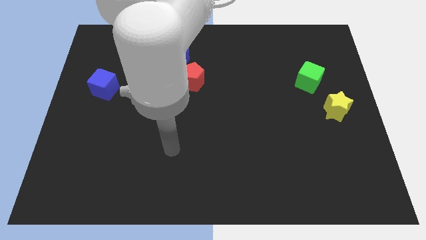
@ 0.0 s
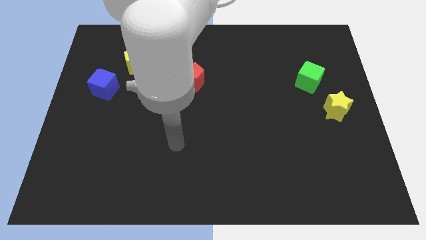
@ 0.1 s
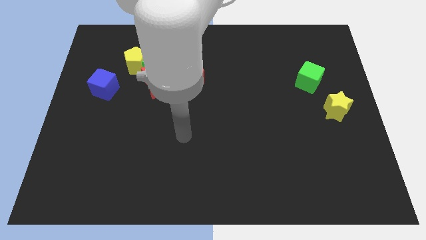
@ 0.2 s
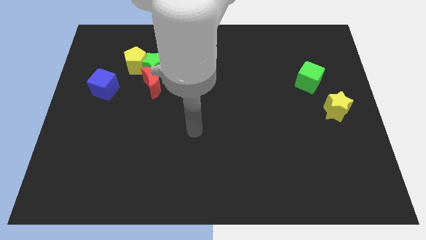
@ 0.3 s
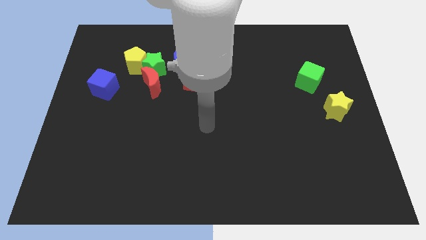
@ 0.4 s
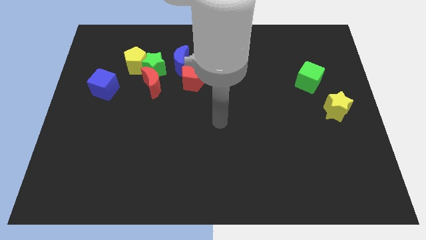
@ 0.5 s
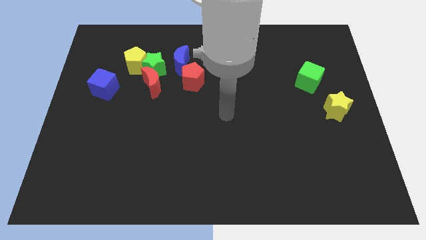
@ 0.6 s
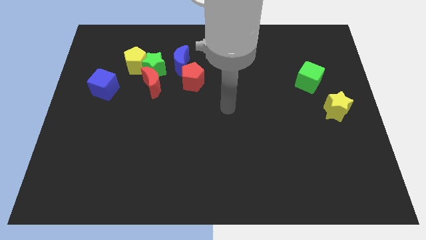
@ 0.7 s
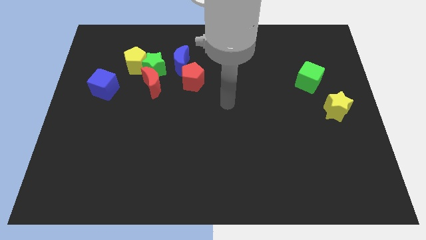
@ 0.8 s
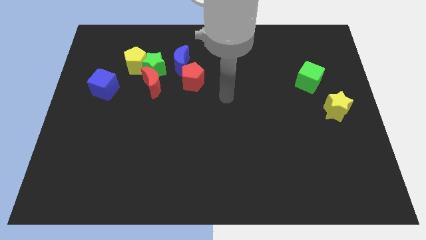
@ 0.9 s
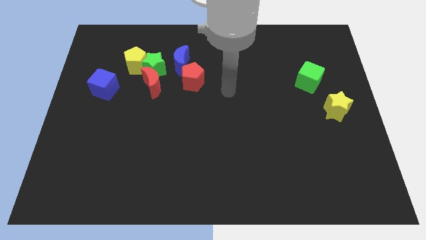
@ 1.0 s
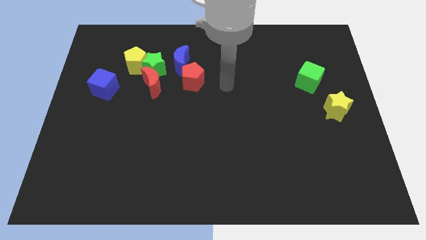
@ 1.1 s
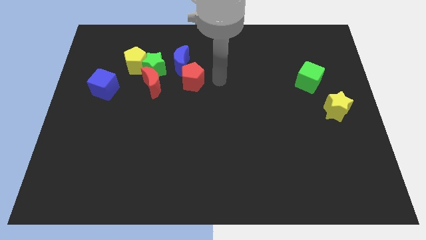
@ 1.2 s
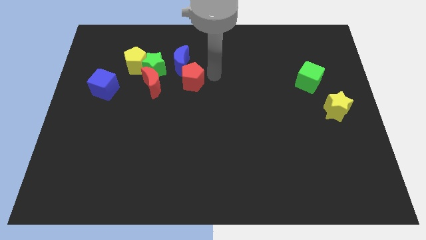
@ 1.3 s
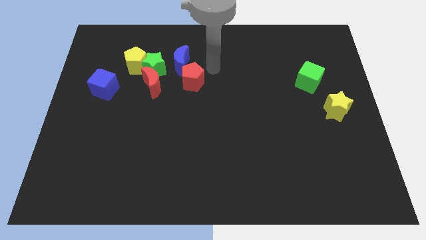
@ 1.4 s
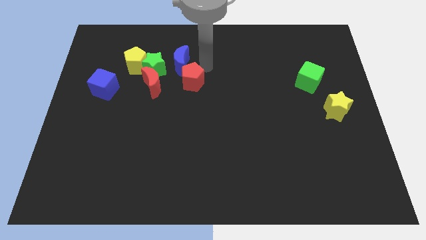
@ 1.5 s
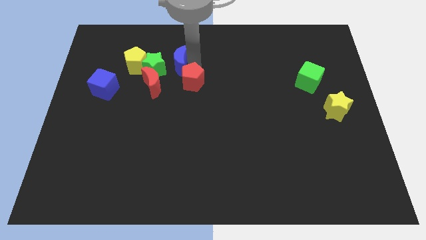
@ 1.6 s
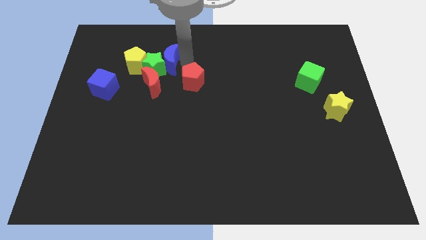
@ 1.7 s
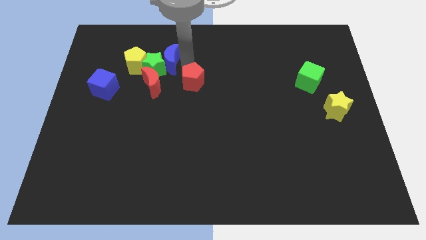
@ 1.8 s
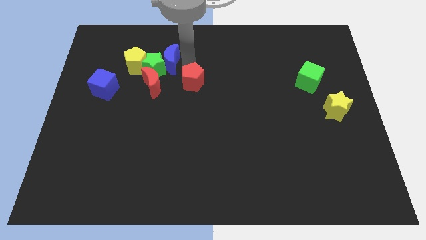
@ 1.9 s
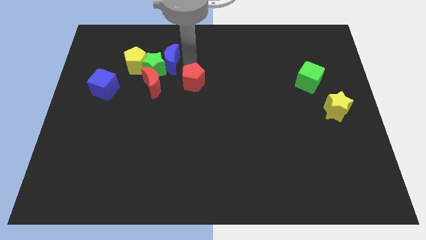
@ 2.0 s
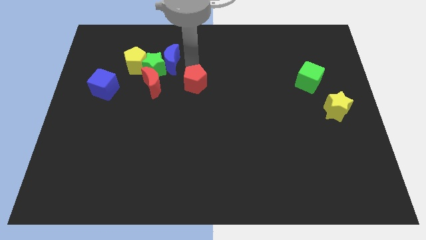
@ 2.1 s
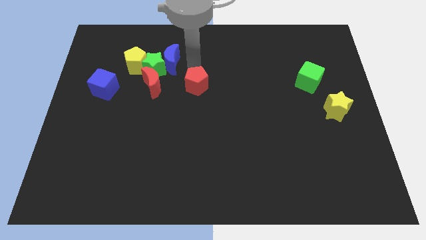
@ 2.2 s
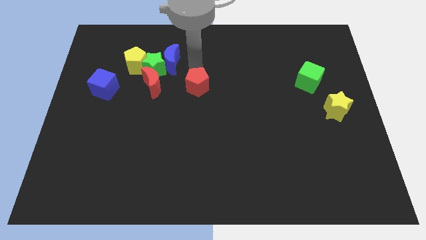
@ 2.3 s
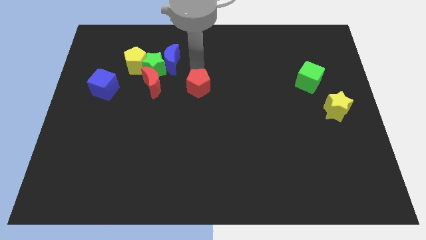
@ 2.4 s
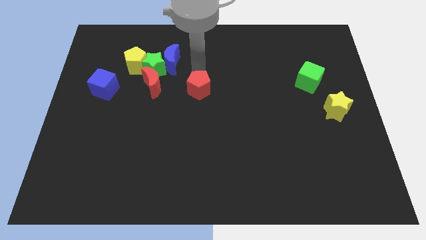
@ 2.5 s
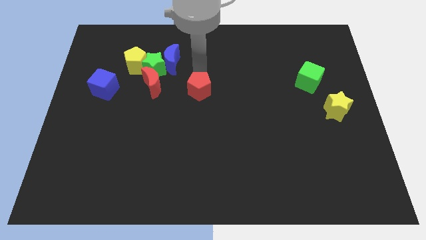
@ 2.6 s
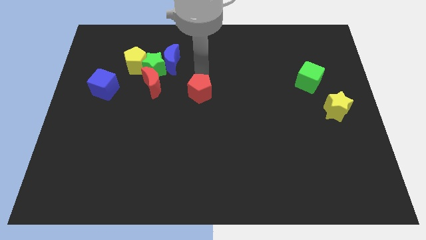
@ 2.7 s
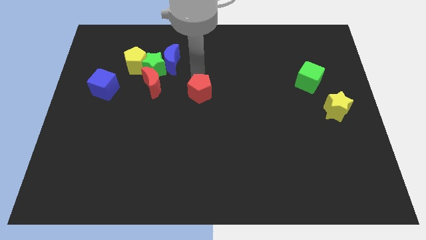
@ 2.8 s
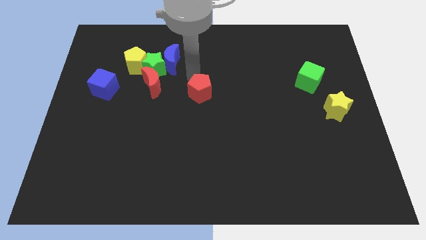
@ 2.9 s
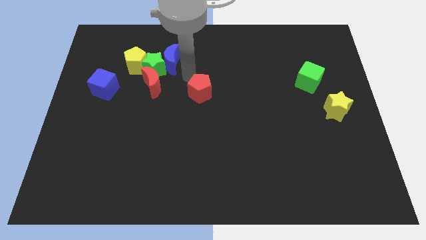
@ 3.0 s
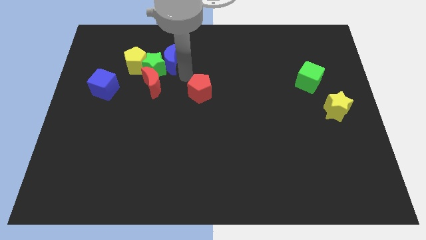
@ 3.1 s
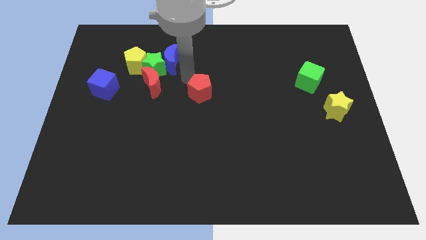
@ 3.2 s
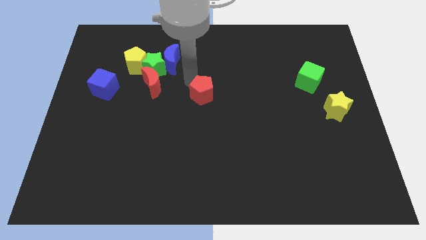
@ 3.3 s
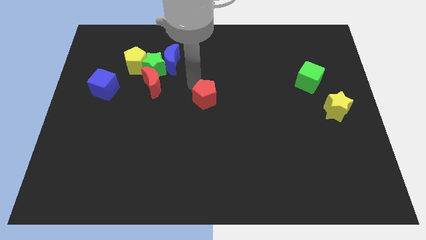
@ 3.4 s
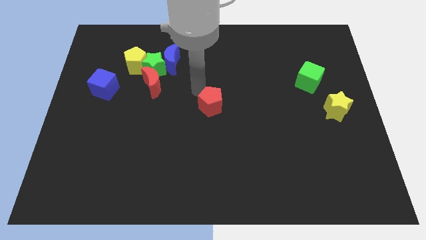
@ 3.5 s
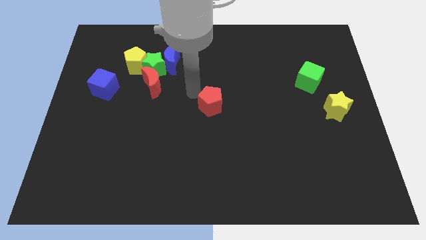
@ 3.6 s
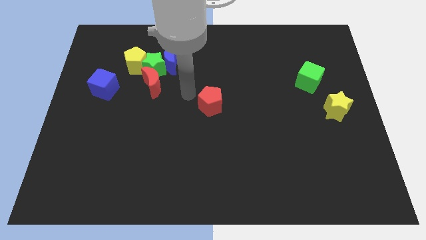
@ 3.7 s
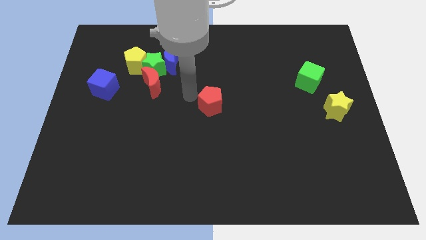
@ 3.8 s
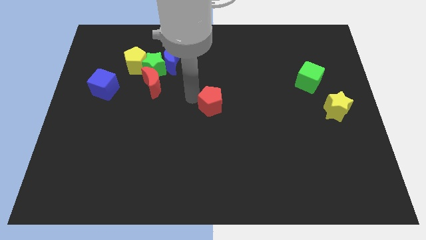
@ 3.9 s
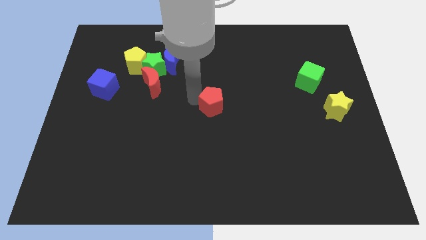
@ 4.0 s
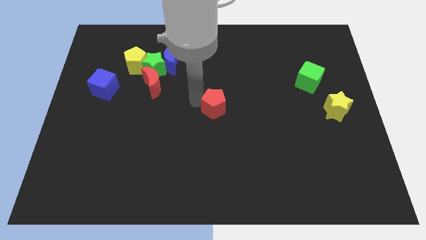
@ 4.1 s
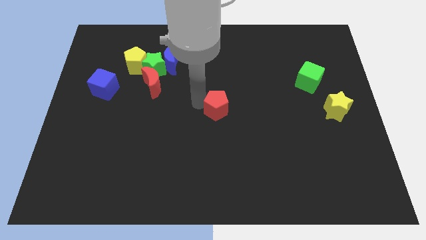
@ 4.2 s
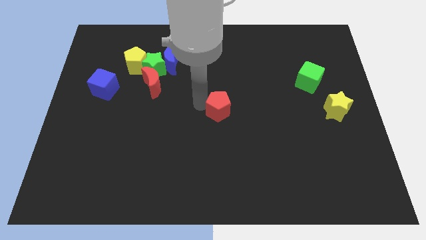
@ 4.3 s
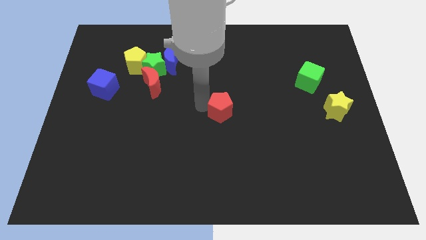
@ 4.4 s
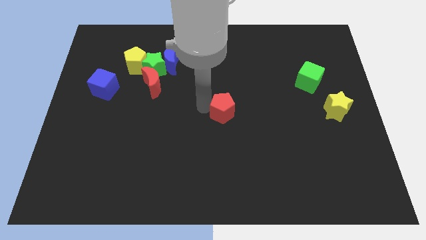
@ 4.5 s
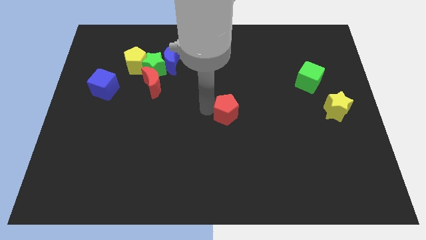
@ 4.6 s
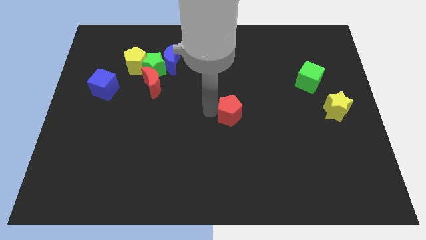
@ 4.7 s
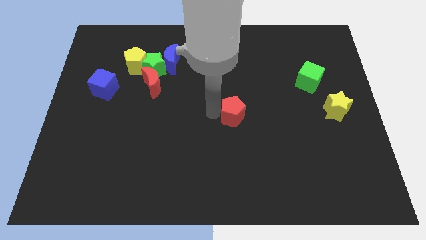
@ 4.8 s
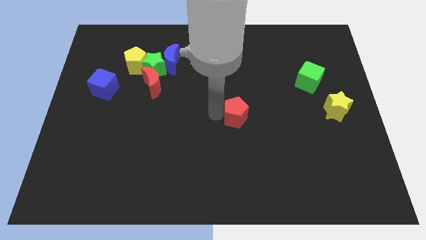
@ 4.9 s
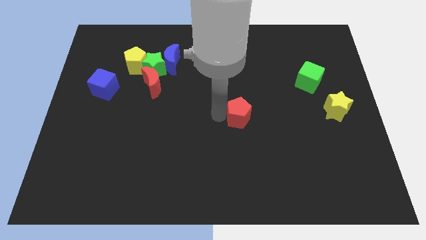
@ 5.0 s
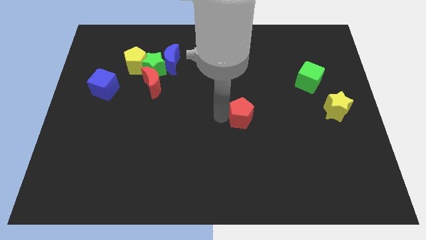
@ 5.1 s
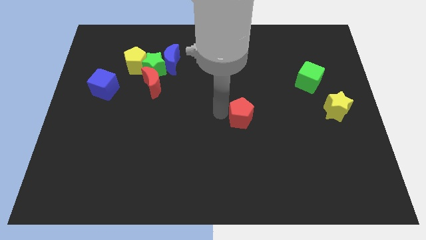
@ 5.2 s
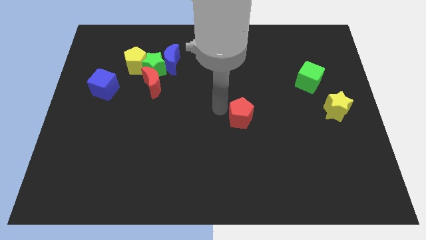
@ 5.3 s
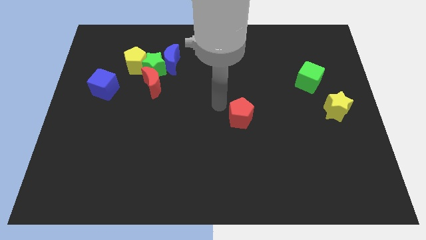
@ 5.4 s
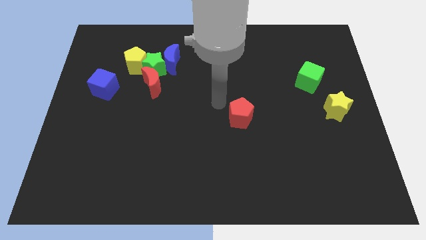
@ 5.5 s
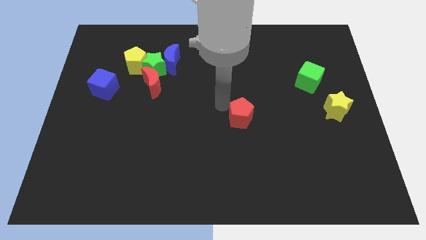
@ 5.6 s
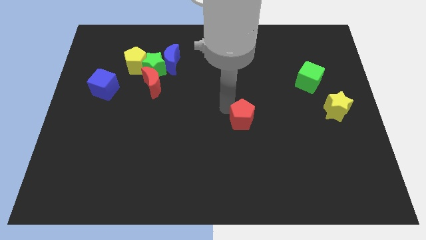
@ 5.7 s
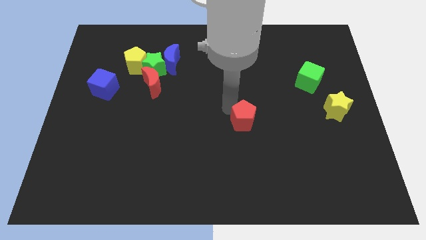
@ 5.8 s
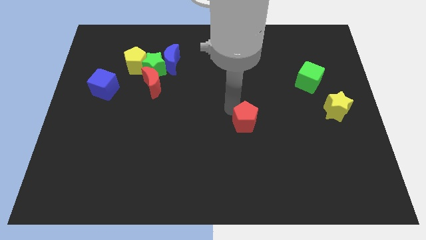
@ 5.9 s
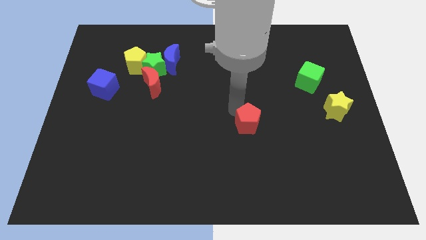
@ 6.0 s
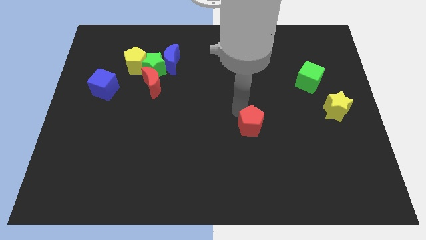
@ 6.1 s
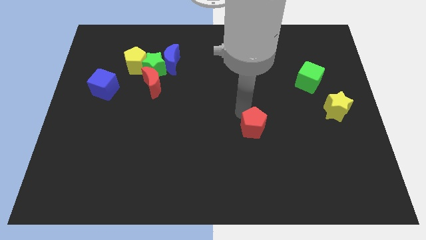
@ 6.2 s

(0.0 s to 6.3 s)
move the red pentagon diagonally downwards and right

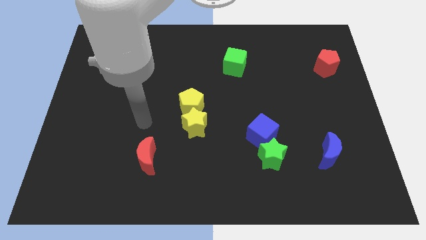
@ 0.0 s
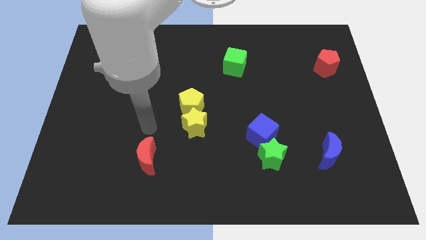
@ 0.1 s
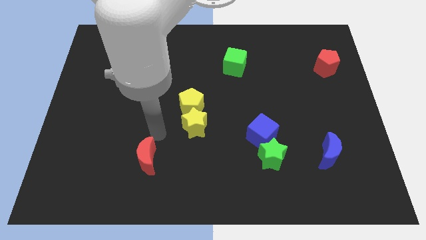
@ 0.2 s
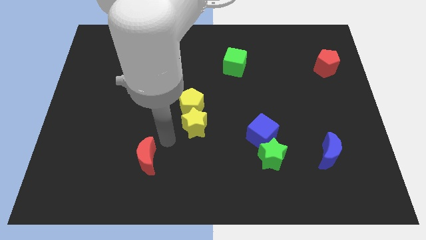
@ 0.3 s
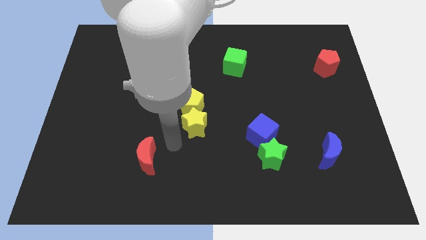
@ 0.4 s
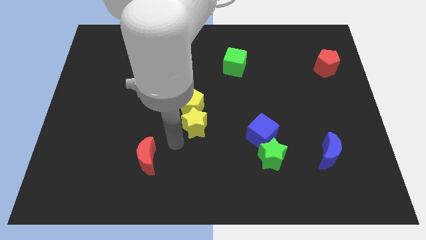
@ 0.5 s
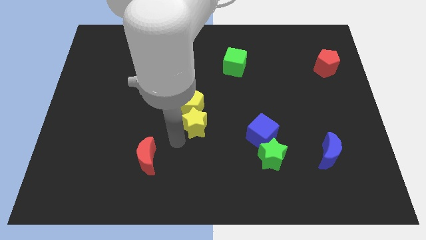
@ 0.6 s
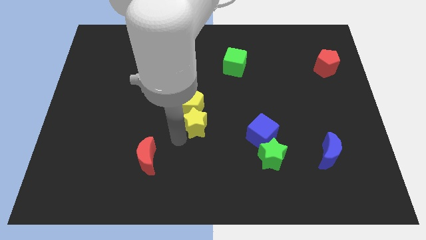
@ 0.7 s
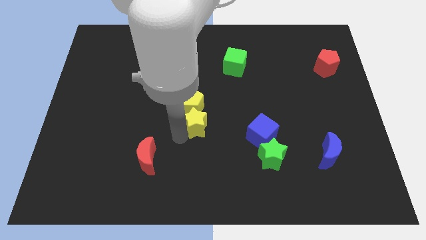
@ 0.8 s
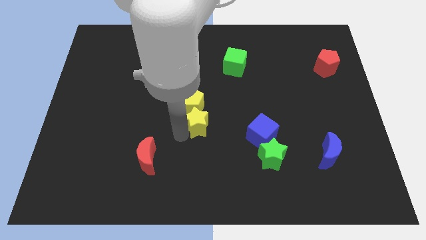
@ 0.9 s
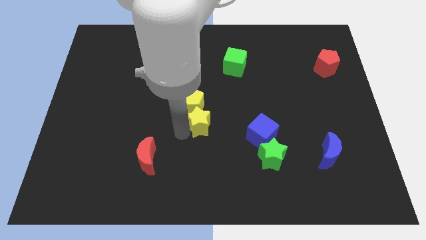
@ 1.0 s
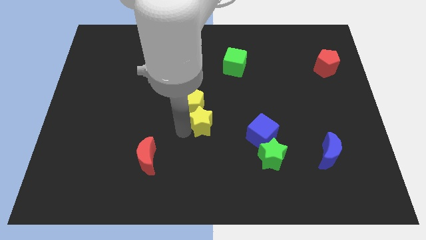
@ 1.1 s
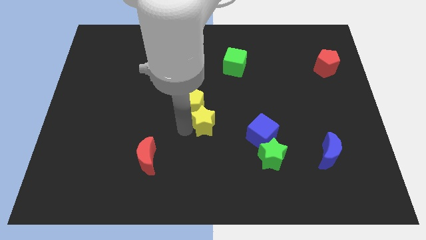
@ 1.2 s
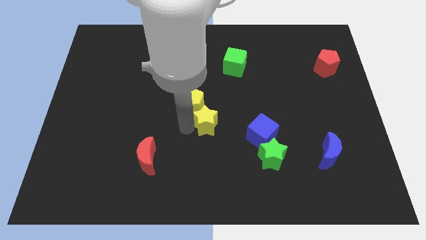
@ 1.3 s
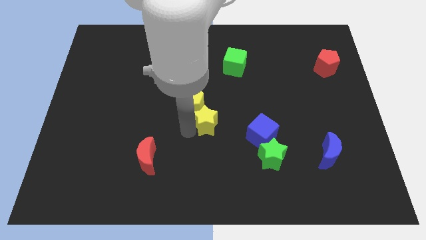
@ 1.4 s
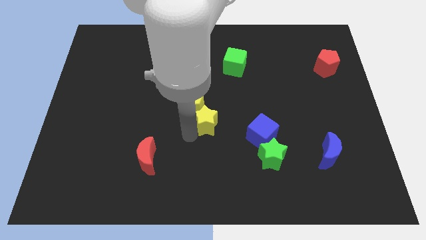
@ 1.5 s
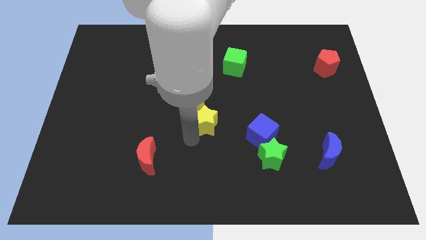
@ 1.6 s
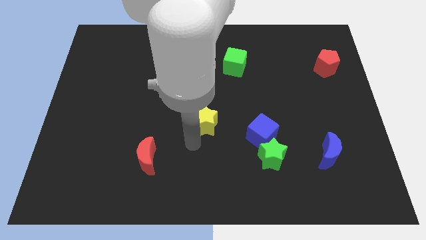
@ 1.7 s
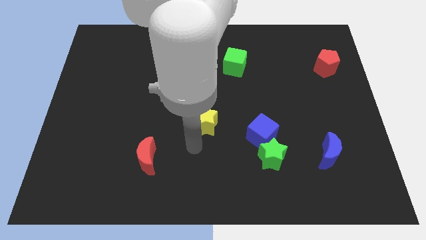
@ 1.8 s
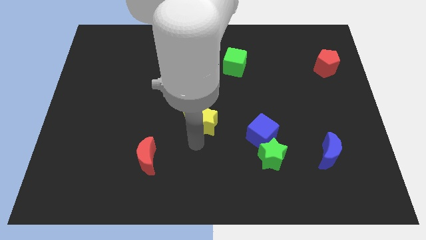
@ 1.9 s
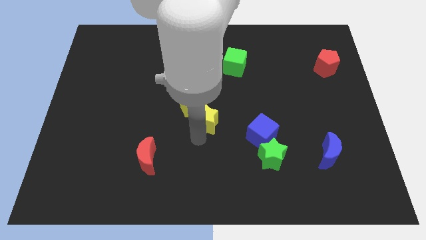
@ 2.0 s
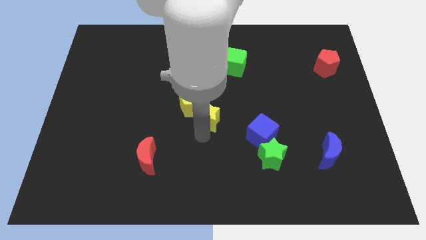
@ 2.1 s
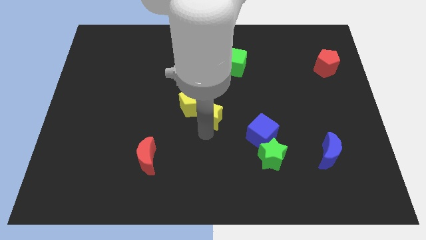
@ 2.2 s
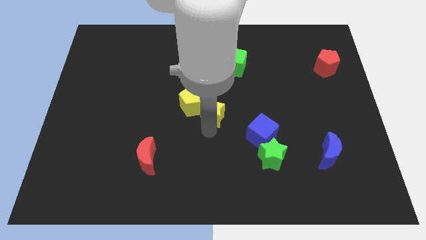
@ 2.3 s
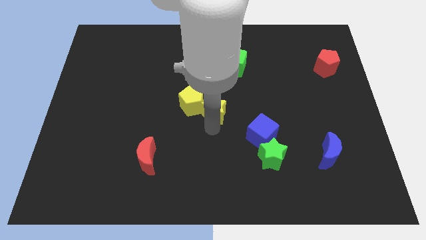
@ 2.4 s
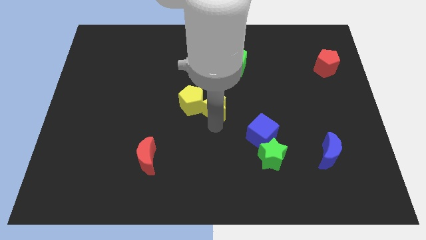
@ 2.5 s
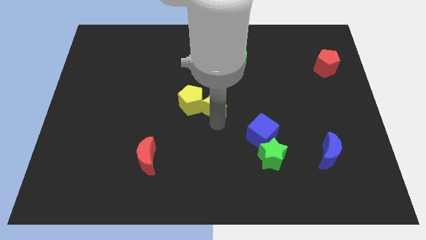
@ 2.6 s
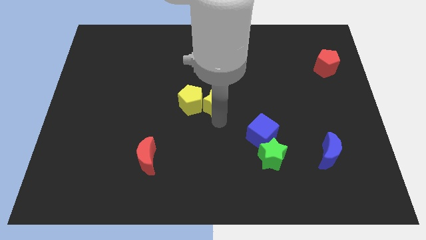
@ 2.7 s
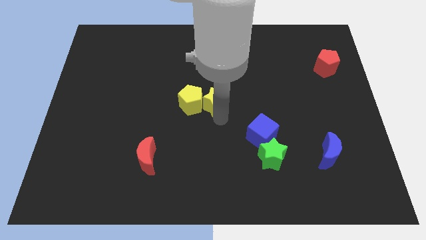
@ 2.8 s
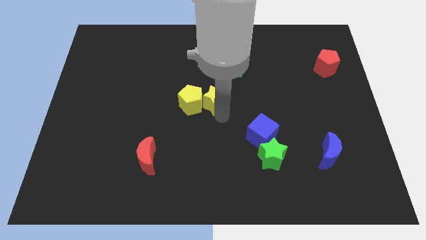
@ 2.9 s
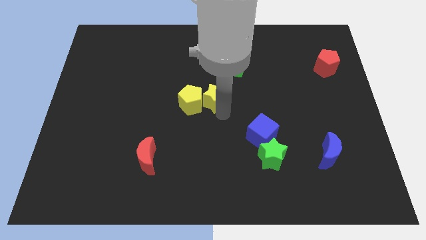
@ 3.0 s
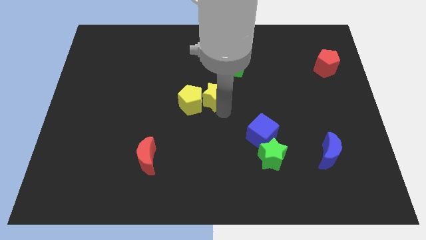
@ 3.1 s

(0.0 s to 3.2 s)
push the yellow star up a bit
